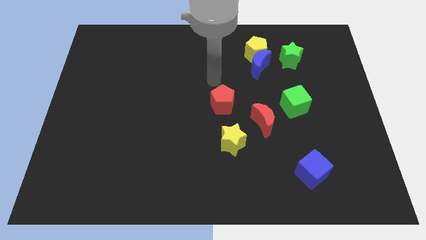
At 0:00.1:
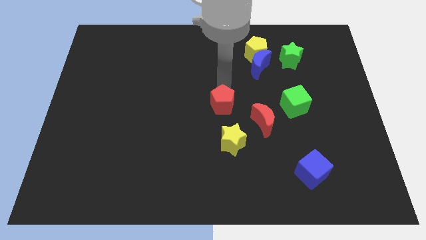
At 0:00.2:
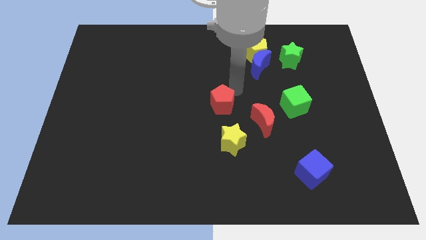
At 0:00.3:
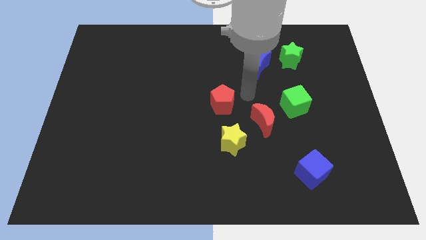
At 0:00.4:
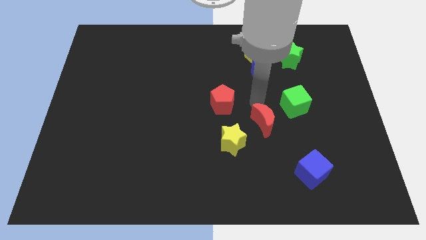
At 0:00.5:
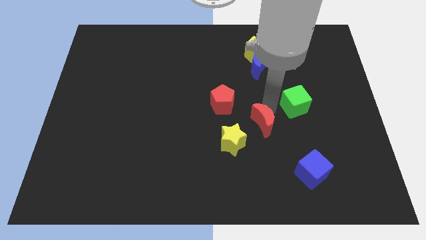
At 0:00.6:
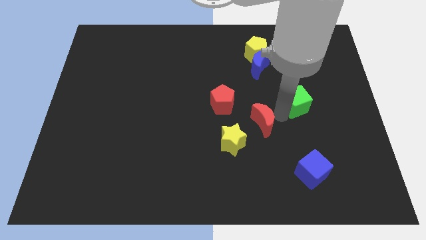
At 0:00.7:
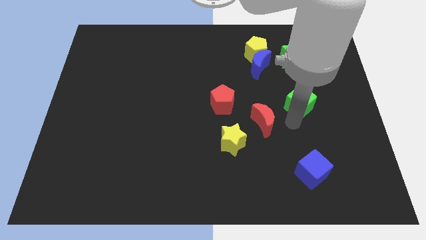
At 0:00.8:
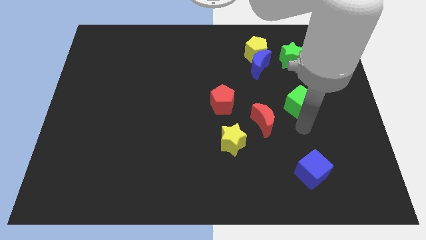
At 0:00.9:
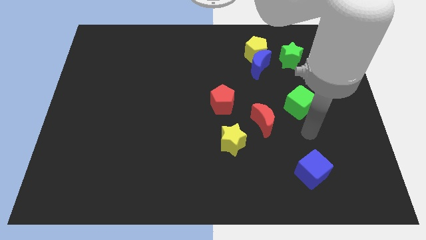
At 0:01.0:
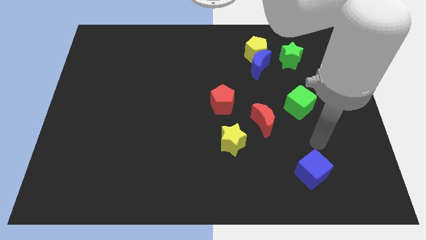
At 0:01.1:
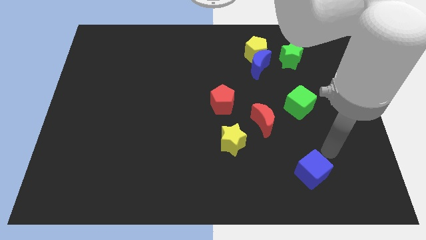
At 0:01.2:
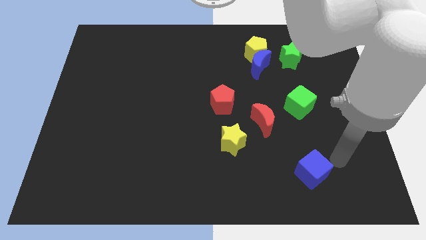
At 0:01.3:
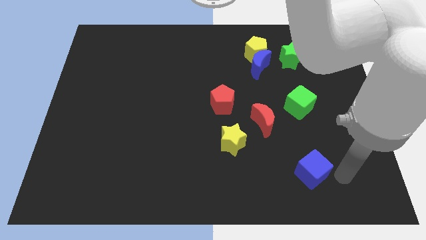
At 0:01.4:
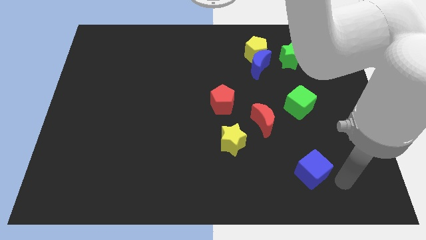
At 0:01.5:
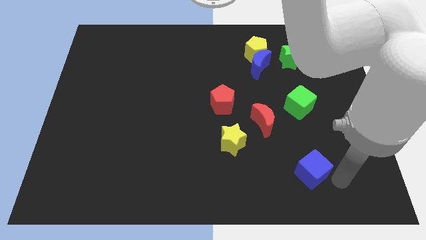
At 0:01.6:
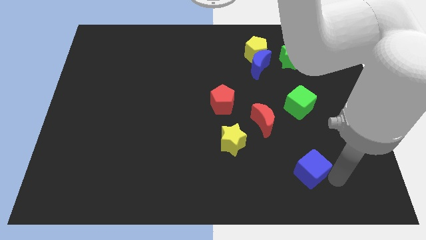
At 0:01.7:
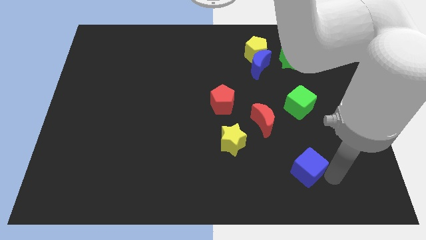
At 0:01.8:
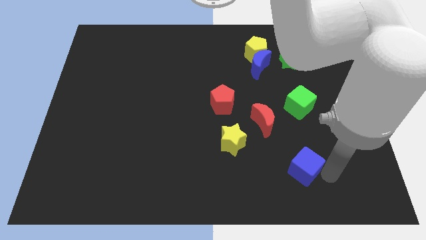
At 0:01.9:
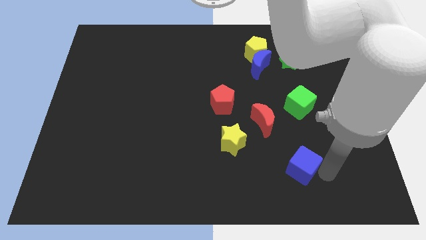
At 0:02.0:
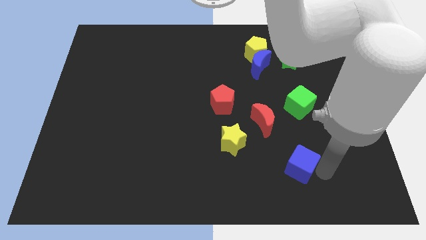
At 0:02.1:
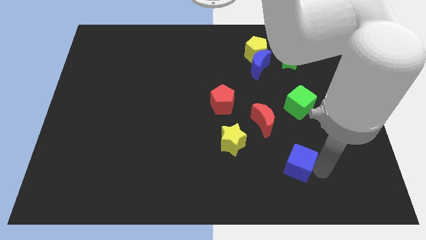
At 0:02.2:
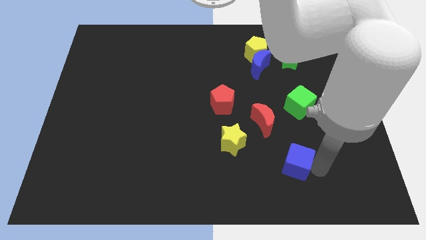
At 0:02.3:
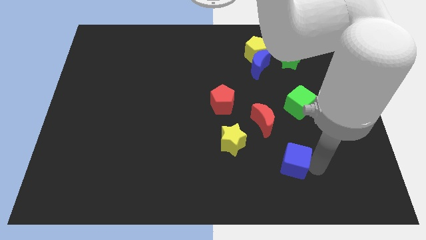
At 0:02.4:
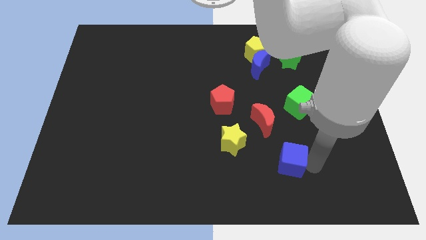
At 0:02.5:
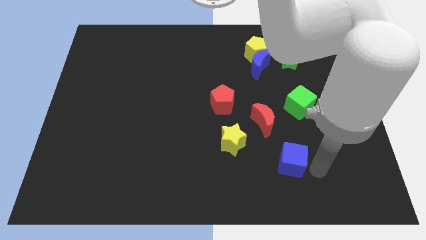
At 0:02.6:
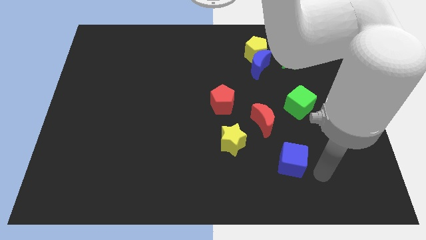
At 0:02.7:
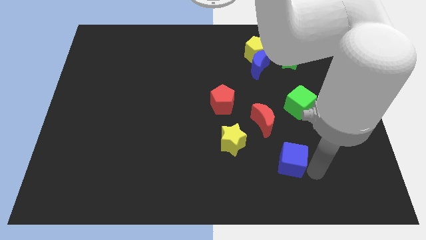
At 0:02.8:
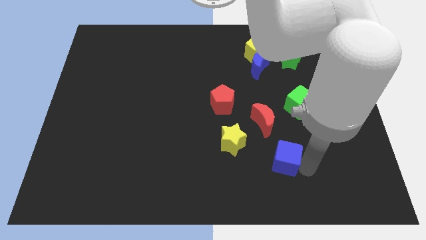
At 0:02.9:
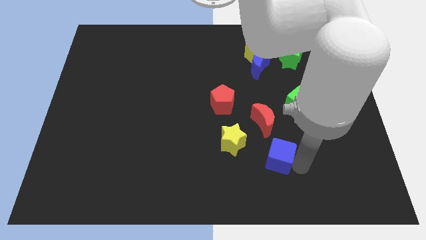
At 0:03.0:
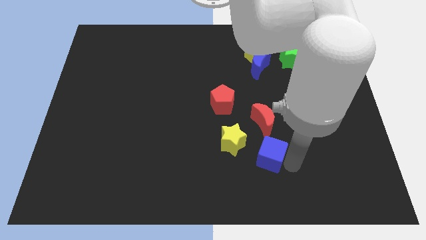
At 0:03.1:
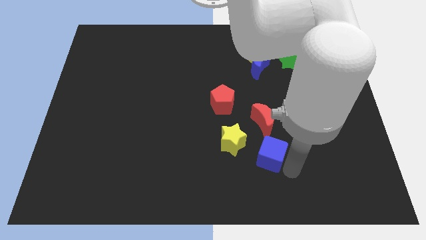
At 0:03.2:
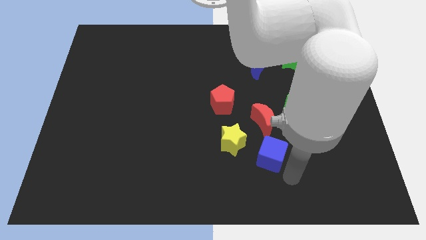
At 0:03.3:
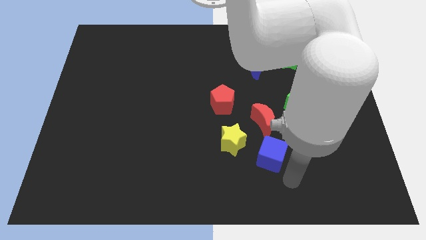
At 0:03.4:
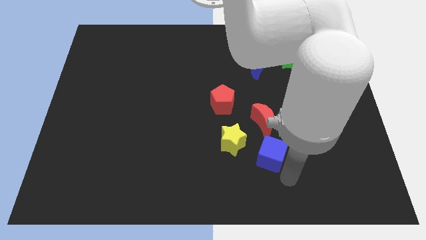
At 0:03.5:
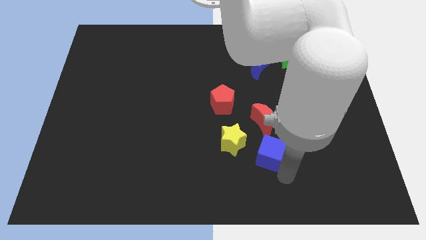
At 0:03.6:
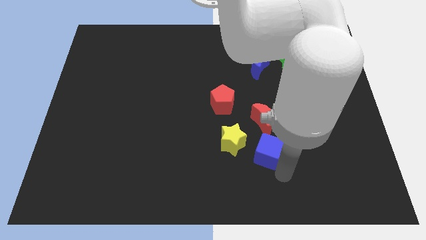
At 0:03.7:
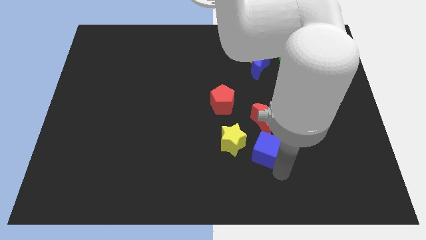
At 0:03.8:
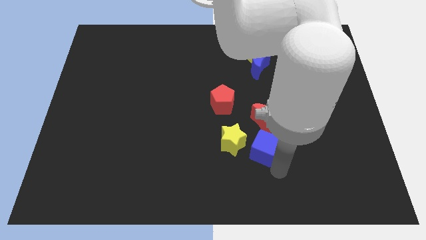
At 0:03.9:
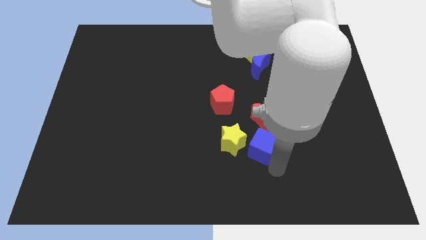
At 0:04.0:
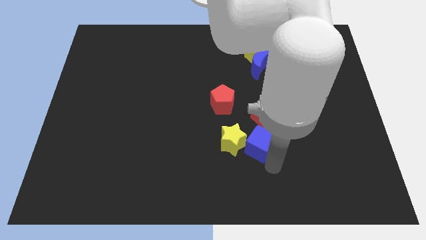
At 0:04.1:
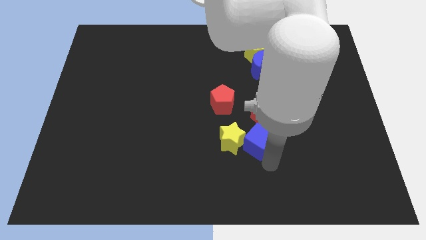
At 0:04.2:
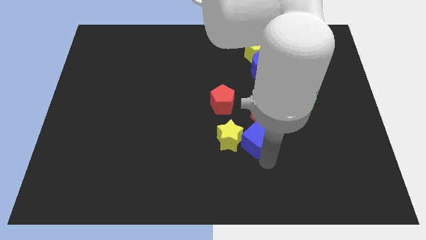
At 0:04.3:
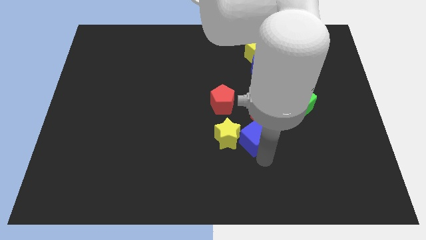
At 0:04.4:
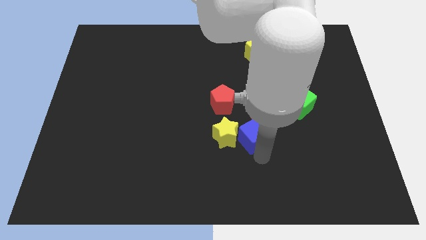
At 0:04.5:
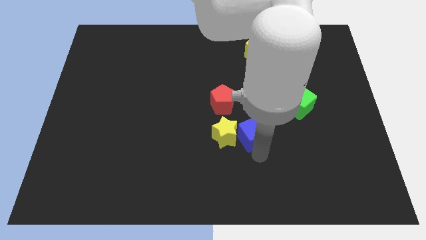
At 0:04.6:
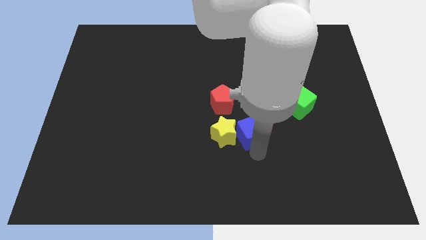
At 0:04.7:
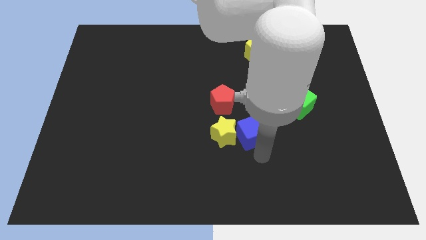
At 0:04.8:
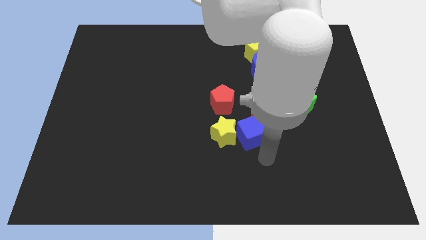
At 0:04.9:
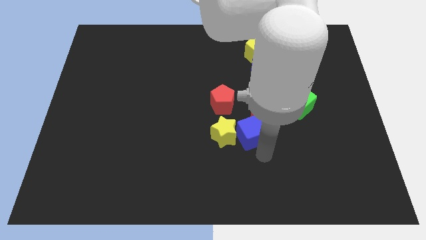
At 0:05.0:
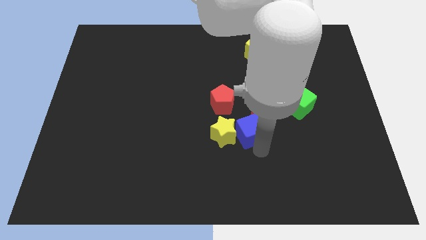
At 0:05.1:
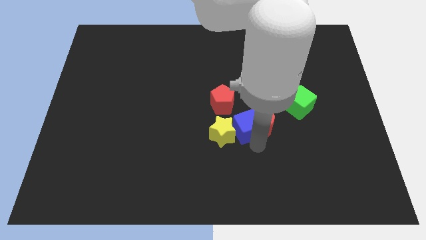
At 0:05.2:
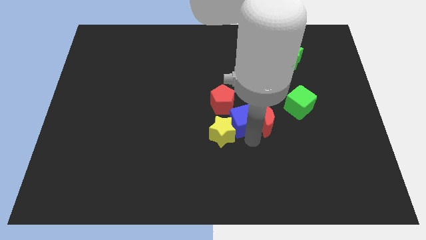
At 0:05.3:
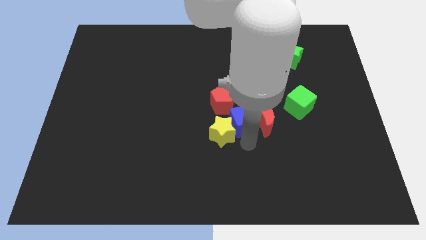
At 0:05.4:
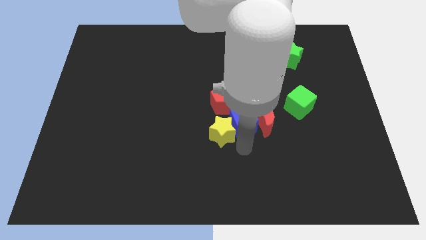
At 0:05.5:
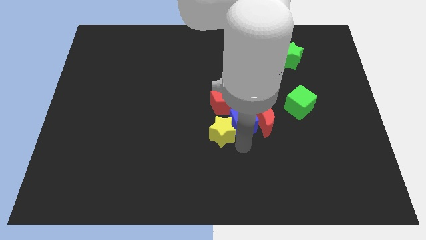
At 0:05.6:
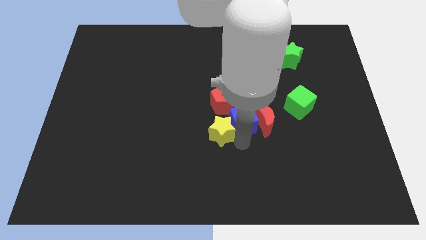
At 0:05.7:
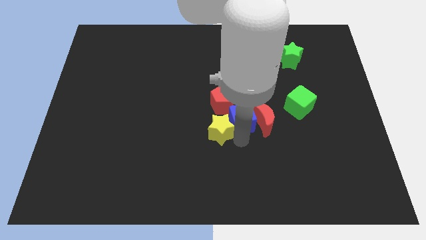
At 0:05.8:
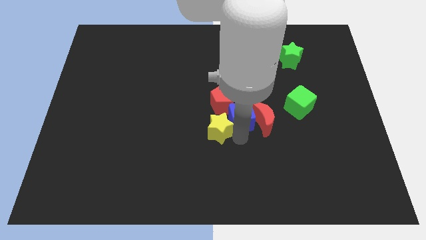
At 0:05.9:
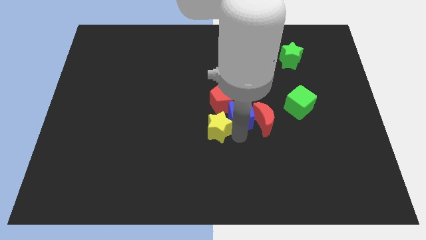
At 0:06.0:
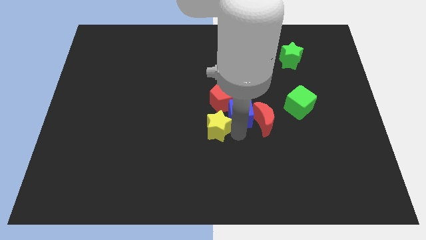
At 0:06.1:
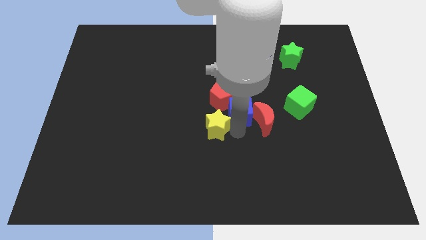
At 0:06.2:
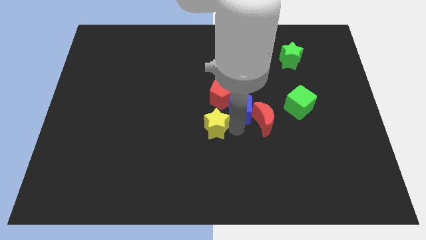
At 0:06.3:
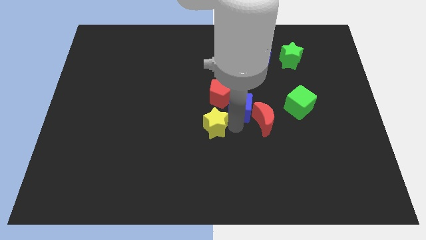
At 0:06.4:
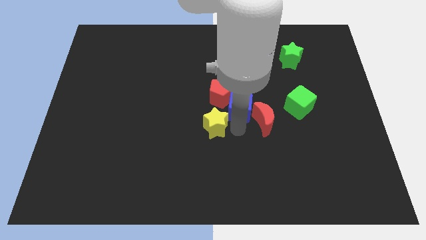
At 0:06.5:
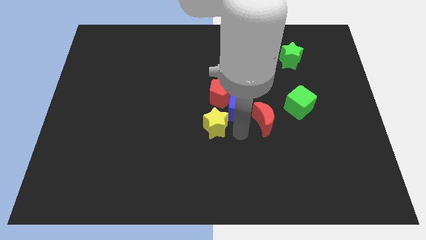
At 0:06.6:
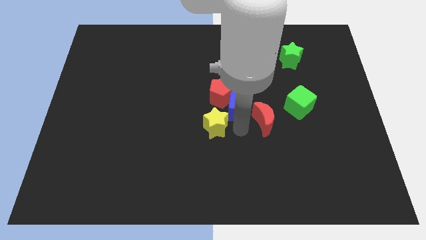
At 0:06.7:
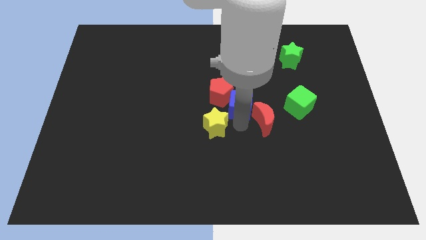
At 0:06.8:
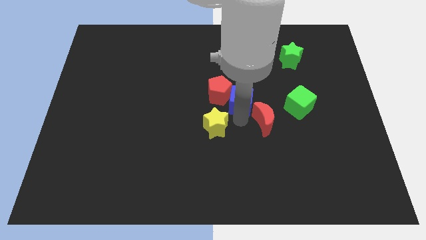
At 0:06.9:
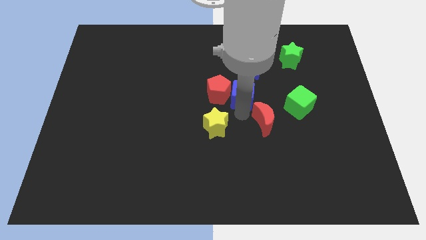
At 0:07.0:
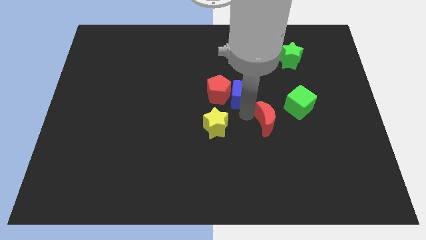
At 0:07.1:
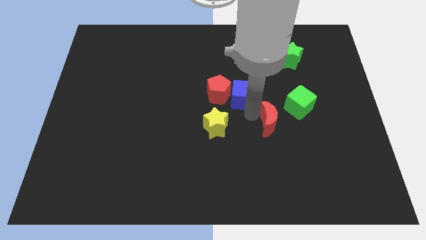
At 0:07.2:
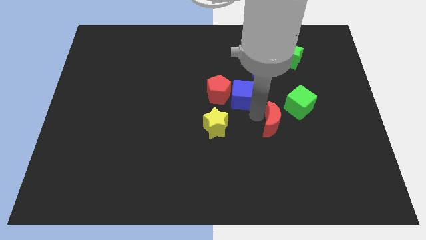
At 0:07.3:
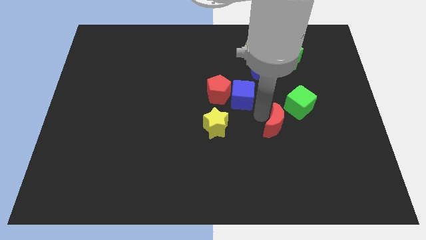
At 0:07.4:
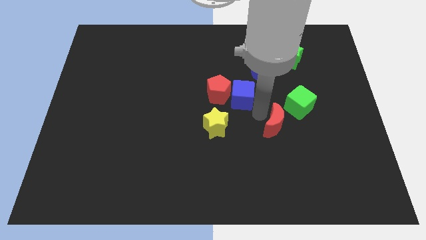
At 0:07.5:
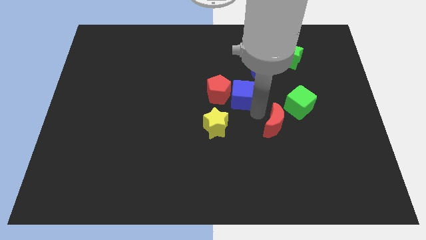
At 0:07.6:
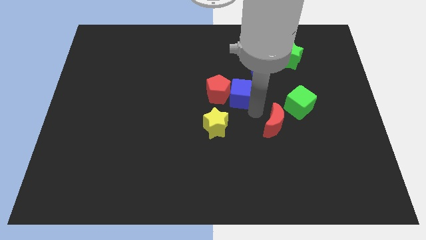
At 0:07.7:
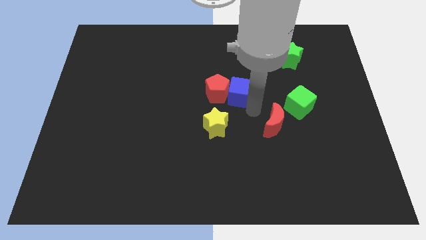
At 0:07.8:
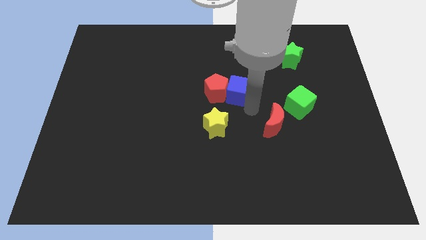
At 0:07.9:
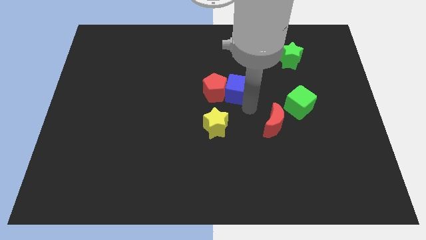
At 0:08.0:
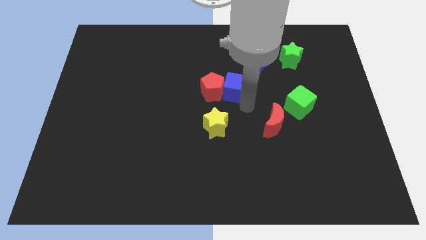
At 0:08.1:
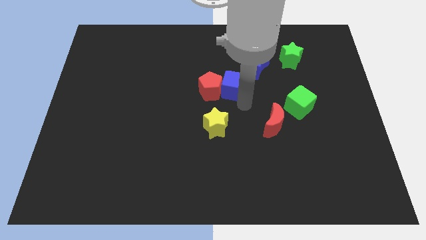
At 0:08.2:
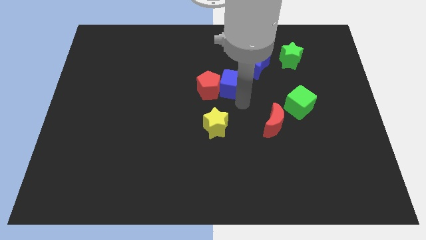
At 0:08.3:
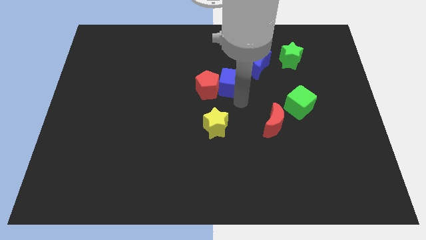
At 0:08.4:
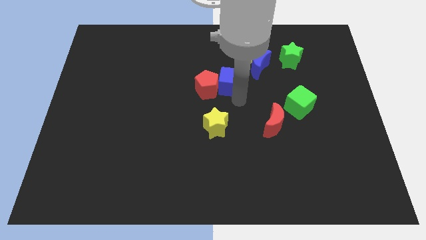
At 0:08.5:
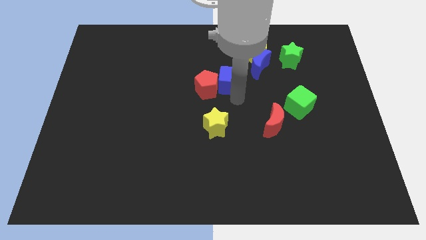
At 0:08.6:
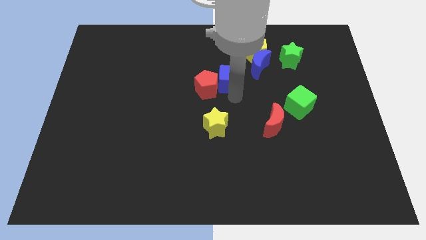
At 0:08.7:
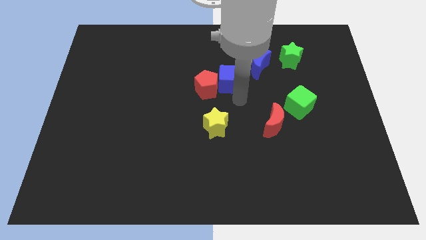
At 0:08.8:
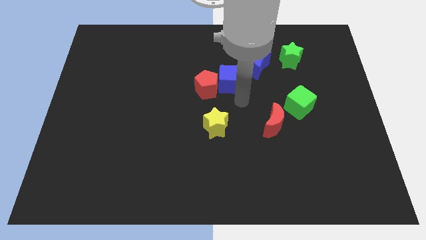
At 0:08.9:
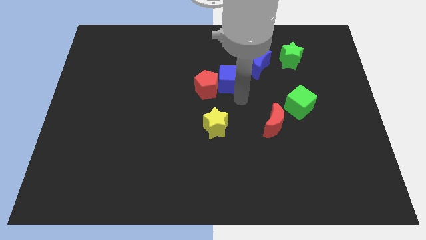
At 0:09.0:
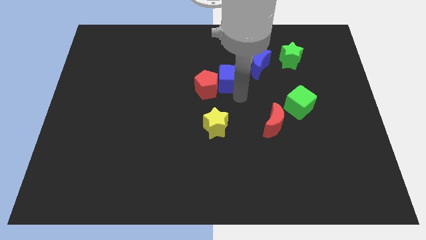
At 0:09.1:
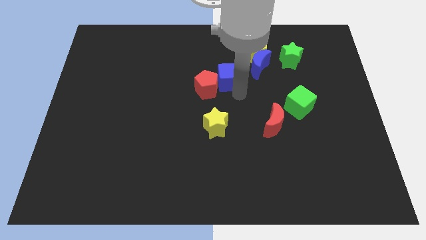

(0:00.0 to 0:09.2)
push the blue cube to the left side of the blue moon
